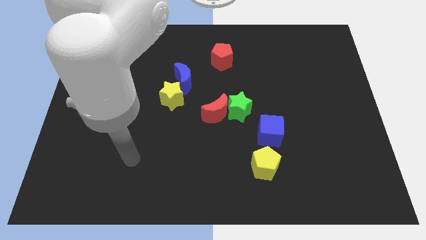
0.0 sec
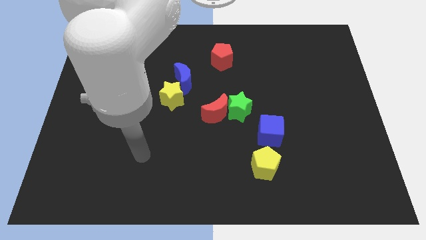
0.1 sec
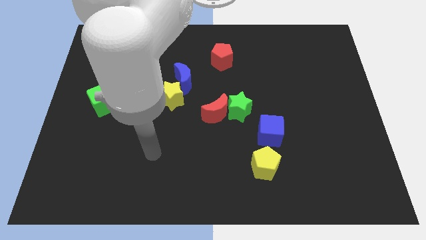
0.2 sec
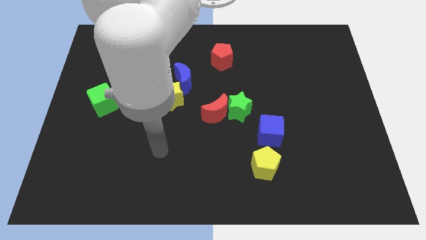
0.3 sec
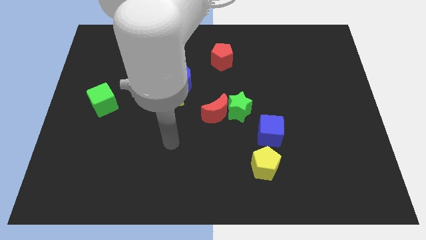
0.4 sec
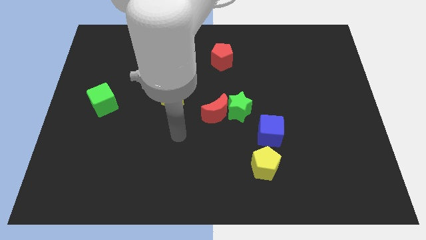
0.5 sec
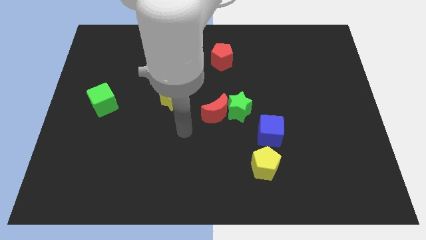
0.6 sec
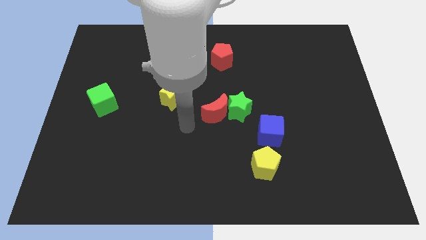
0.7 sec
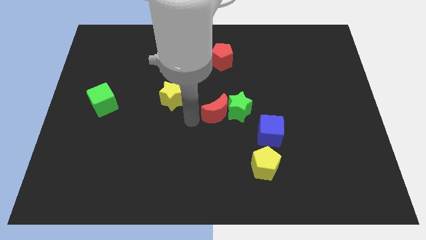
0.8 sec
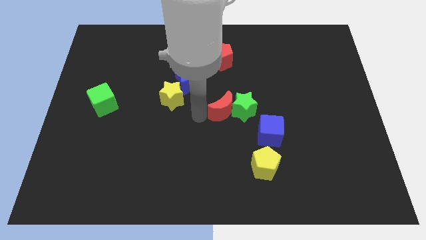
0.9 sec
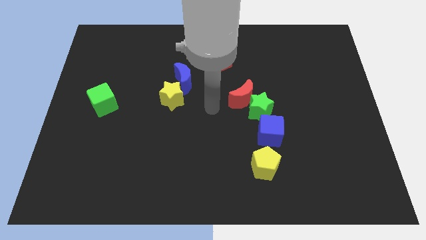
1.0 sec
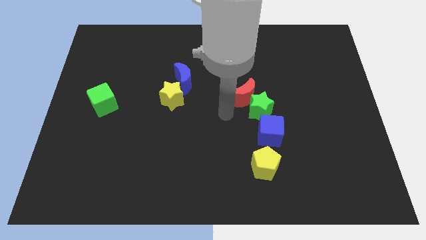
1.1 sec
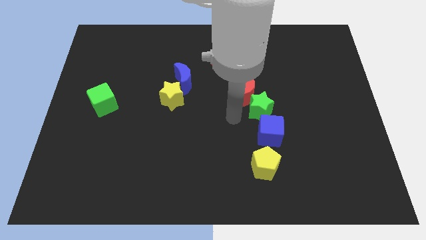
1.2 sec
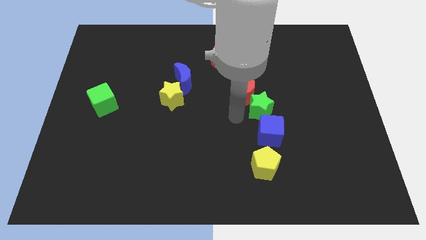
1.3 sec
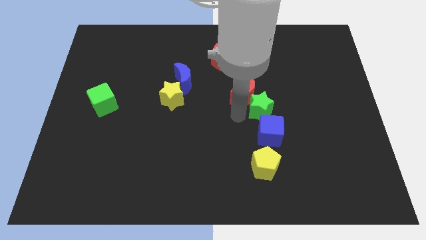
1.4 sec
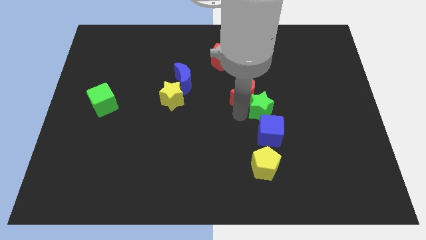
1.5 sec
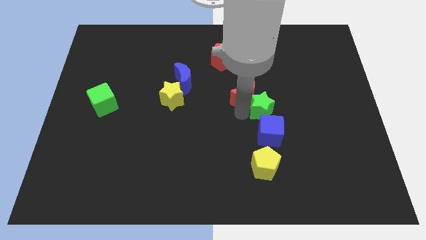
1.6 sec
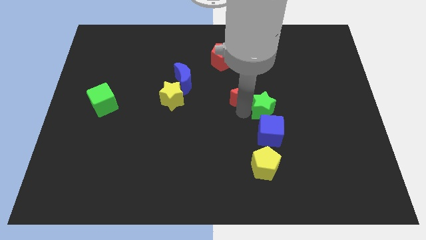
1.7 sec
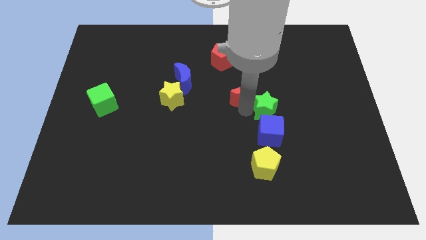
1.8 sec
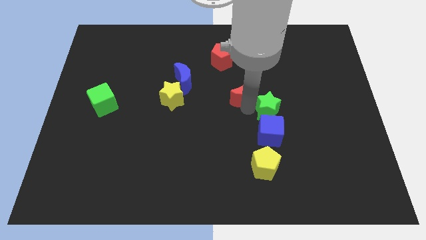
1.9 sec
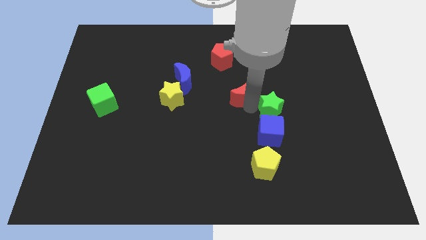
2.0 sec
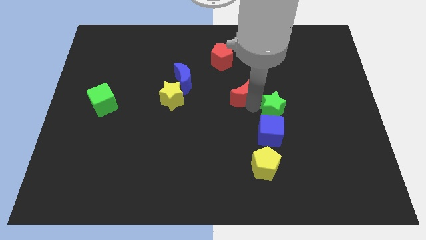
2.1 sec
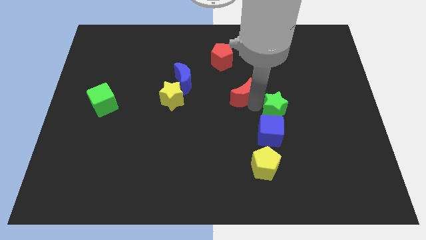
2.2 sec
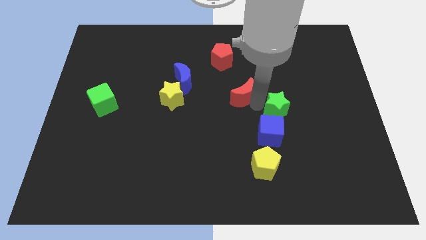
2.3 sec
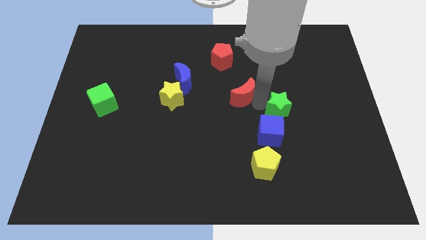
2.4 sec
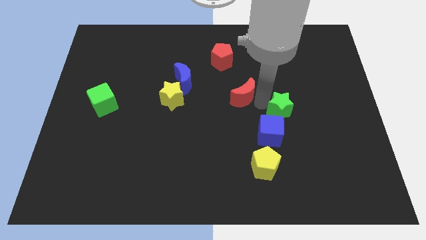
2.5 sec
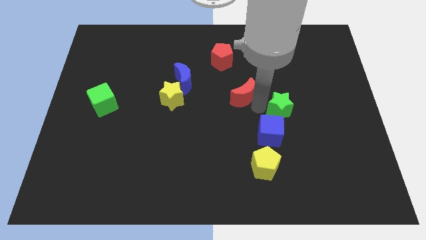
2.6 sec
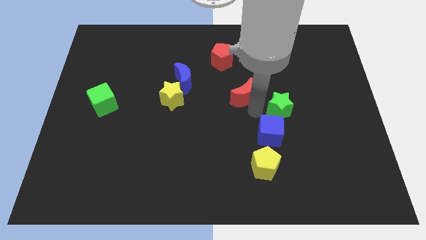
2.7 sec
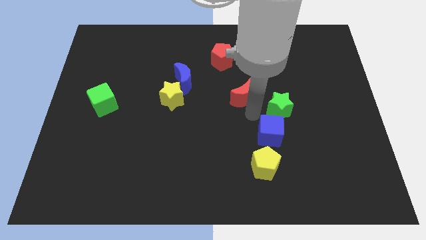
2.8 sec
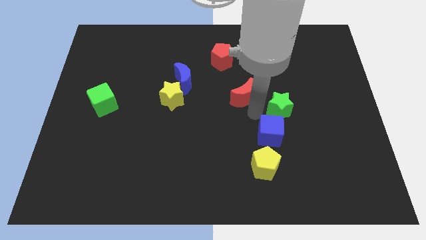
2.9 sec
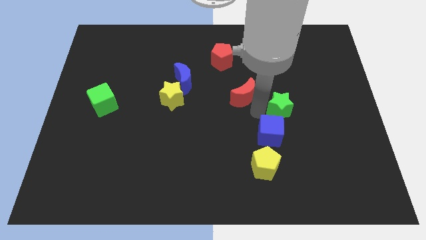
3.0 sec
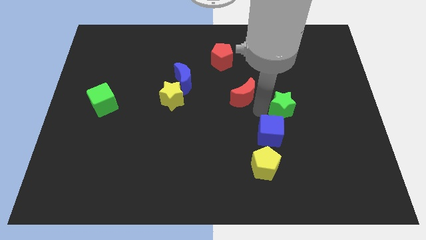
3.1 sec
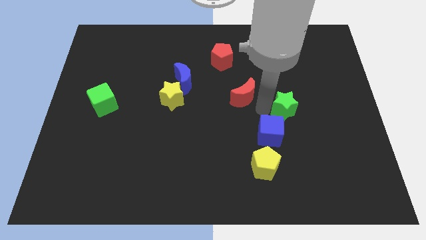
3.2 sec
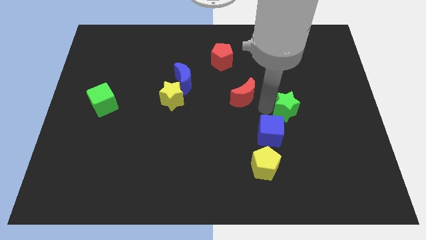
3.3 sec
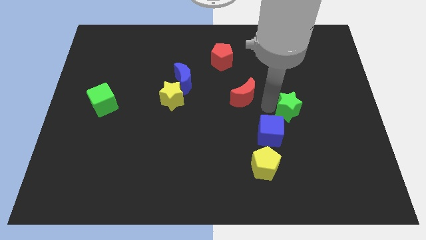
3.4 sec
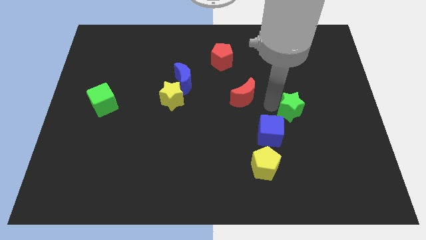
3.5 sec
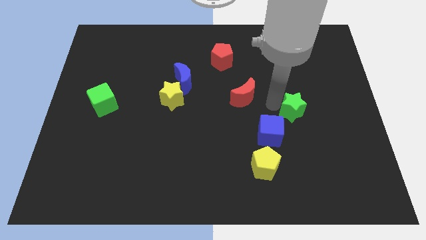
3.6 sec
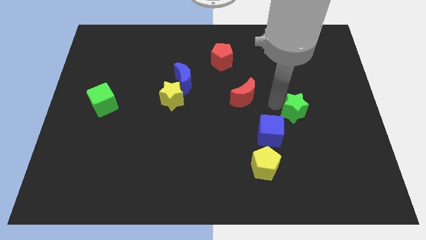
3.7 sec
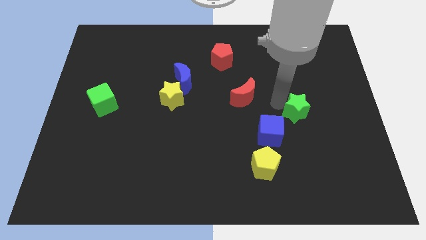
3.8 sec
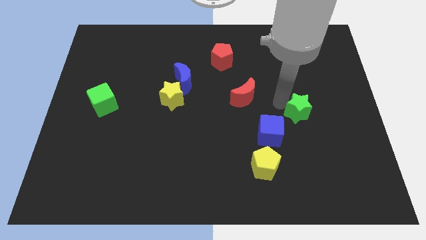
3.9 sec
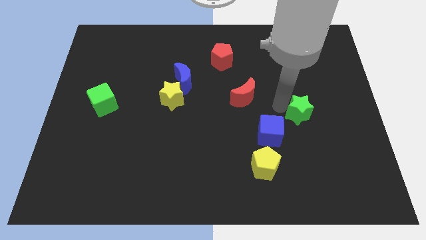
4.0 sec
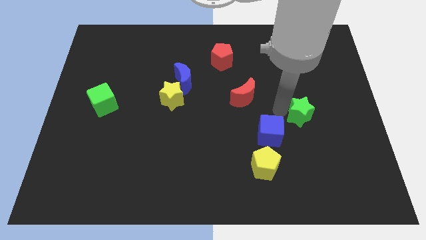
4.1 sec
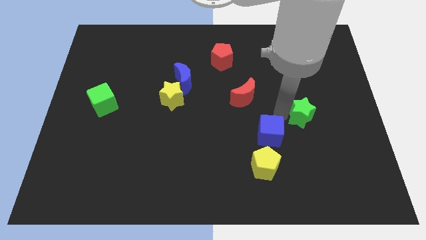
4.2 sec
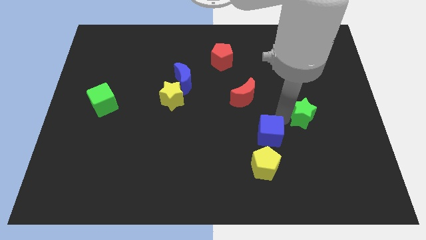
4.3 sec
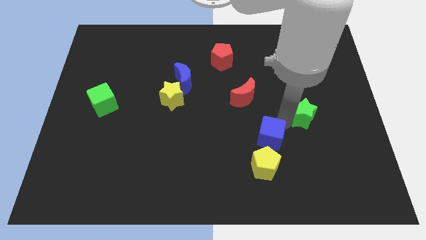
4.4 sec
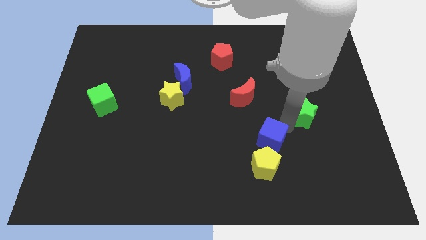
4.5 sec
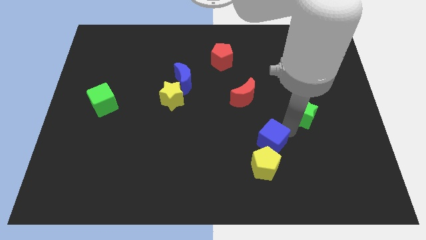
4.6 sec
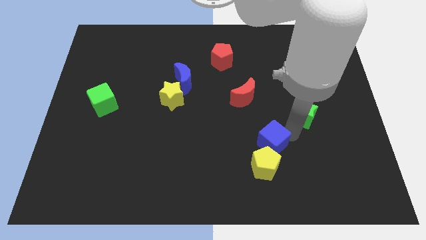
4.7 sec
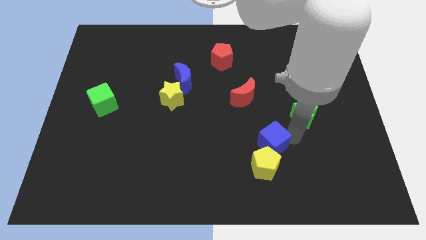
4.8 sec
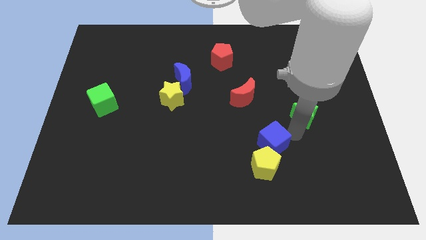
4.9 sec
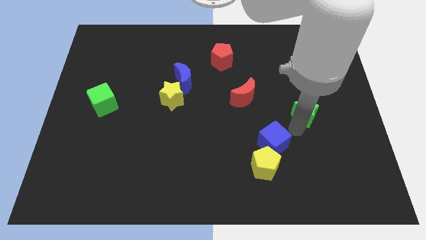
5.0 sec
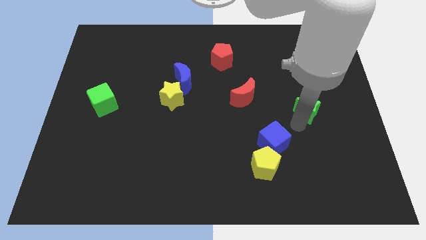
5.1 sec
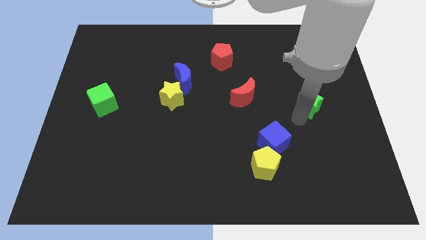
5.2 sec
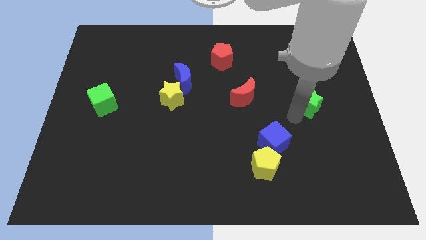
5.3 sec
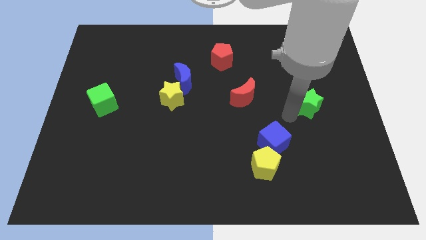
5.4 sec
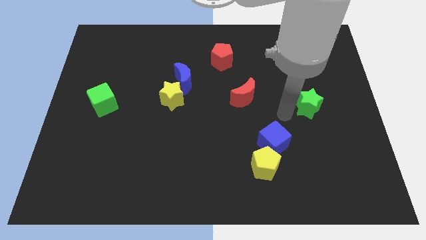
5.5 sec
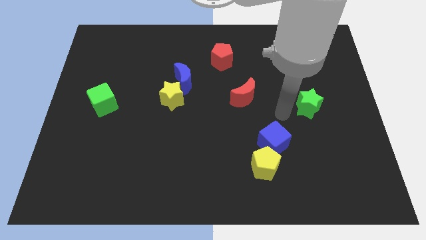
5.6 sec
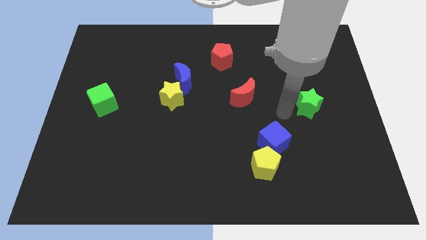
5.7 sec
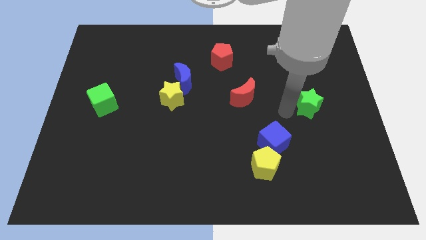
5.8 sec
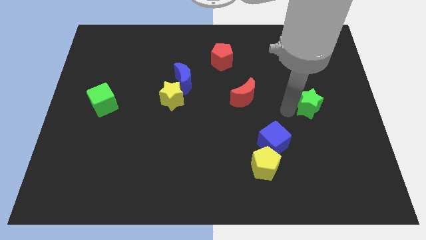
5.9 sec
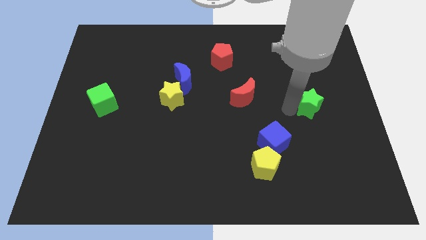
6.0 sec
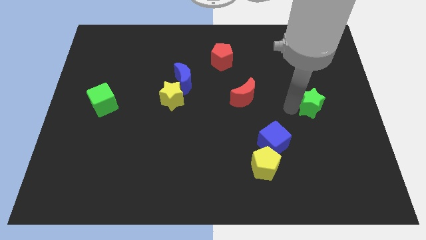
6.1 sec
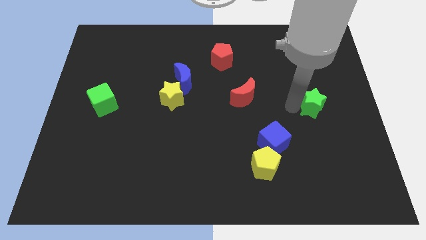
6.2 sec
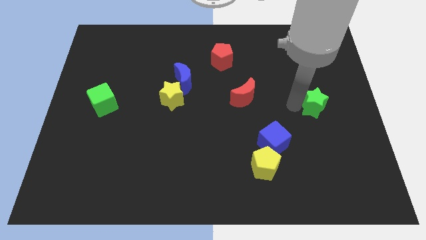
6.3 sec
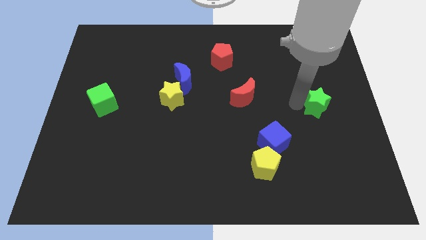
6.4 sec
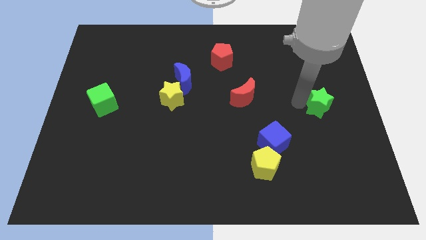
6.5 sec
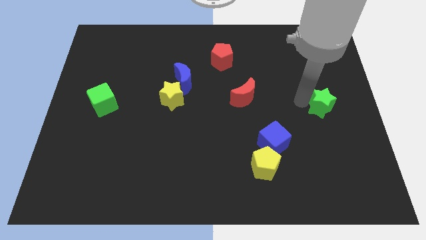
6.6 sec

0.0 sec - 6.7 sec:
push the green star to the center right

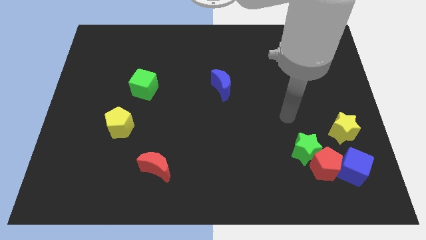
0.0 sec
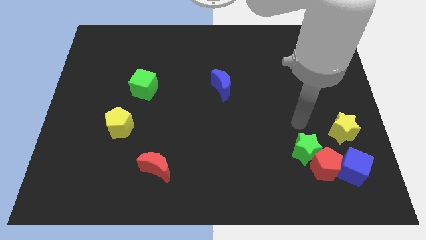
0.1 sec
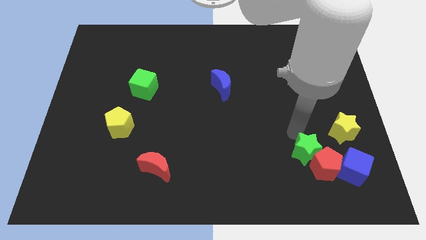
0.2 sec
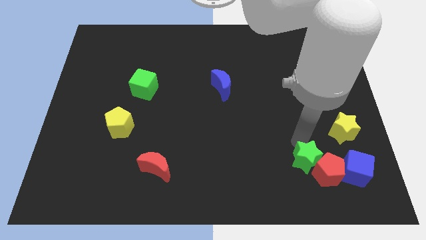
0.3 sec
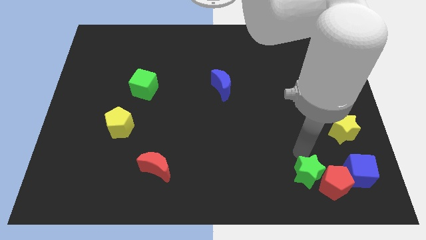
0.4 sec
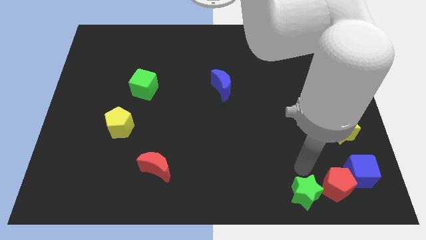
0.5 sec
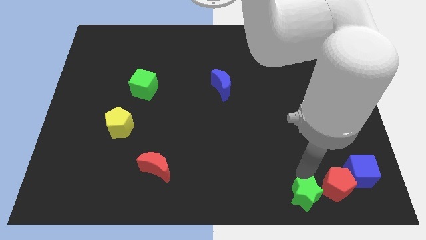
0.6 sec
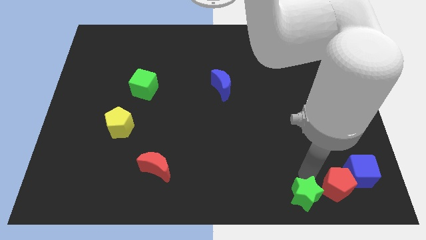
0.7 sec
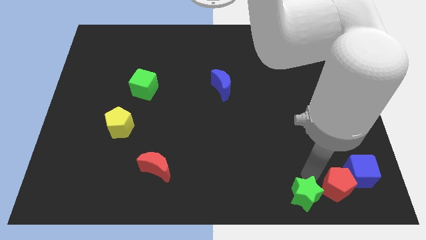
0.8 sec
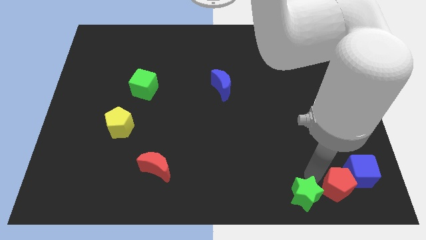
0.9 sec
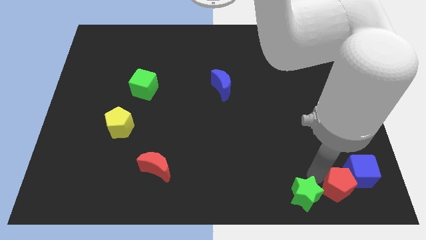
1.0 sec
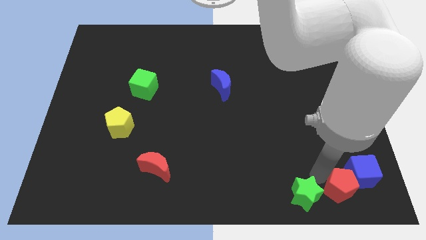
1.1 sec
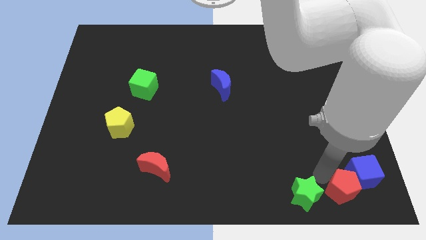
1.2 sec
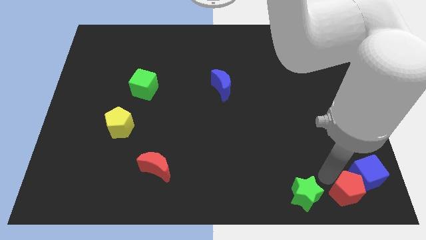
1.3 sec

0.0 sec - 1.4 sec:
push the red pentagon to the bottom right corner
